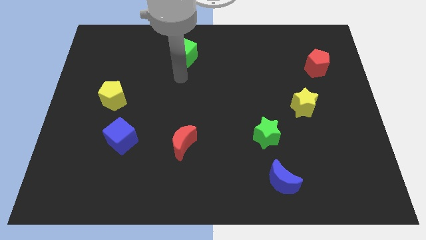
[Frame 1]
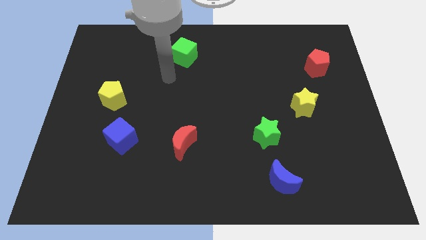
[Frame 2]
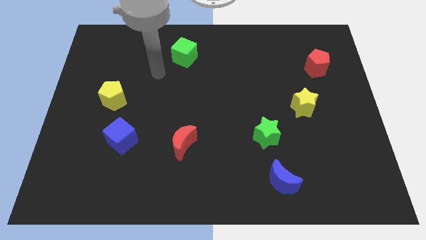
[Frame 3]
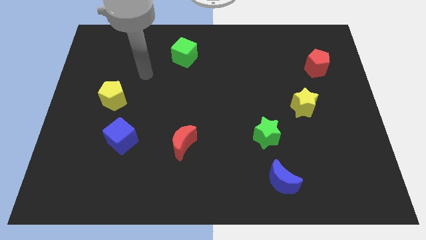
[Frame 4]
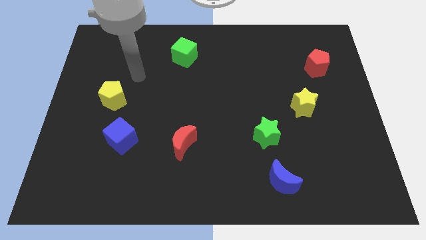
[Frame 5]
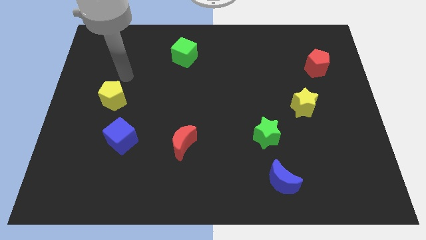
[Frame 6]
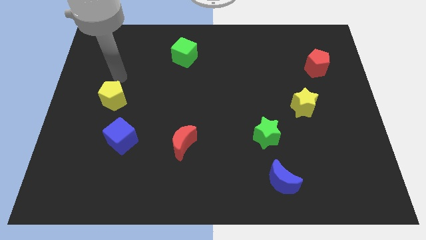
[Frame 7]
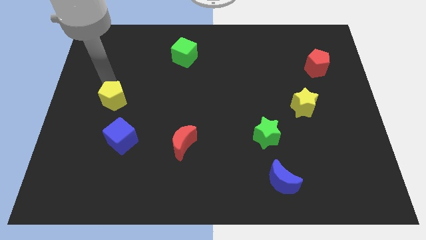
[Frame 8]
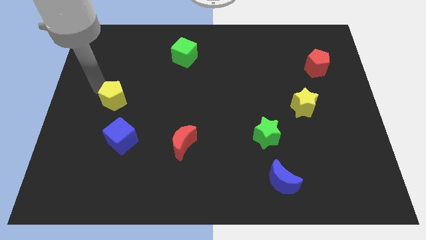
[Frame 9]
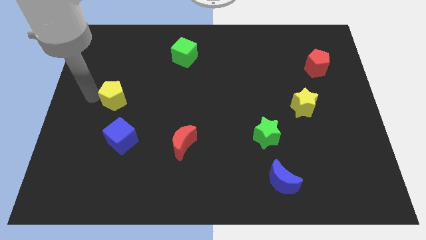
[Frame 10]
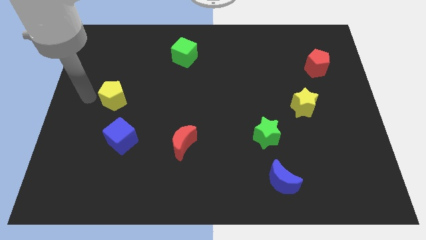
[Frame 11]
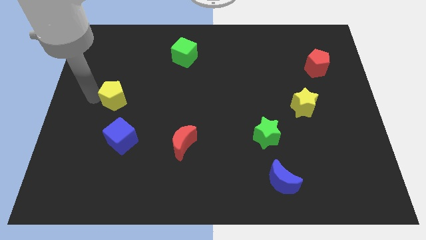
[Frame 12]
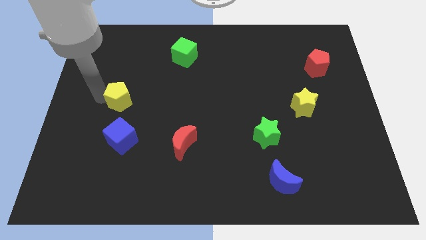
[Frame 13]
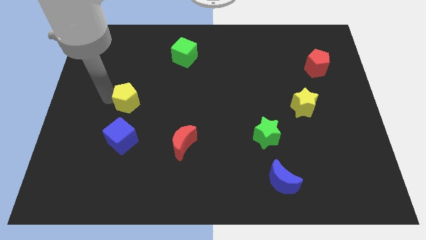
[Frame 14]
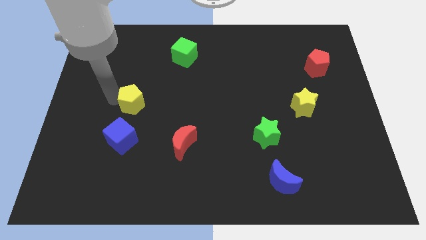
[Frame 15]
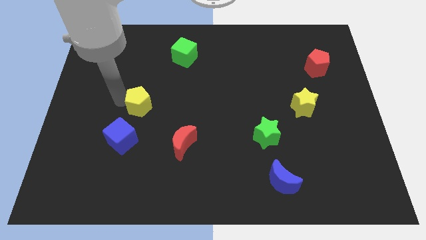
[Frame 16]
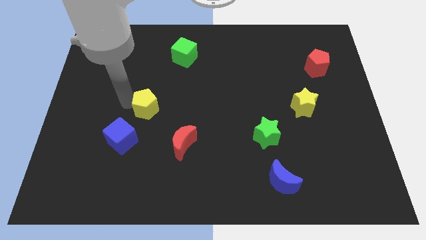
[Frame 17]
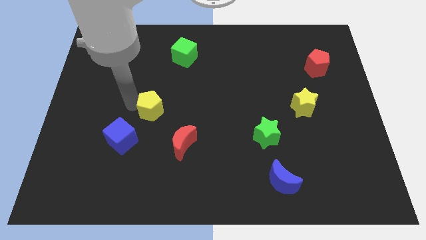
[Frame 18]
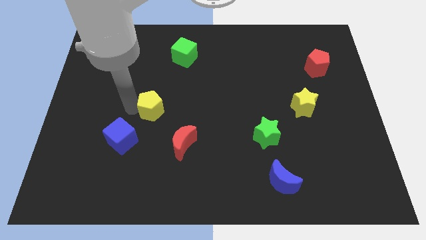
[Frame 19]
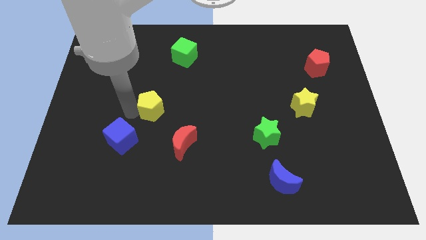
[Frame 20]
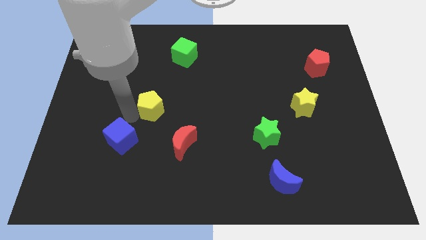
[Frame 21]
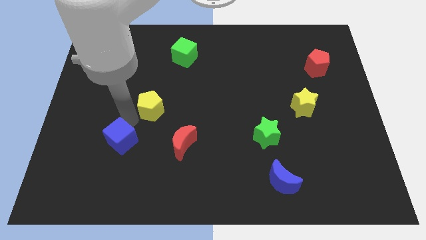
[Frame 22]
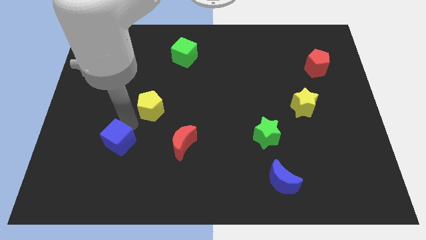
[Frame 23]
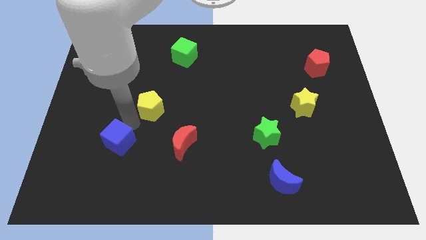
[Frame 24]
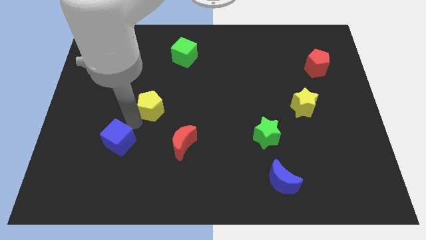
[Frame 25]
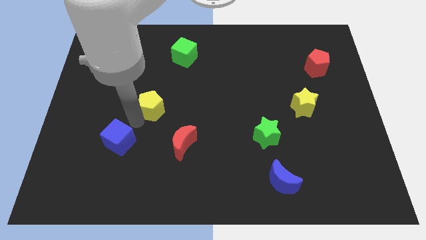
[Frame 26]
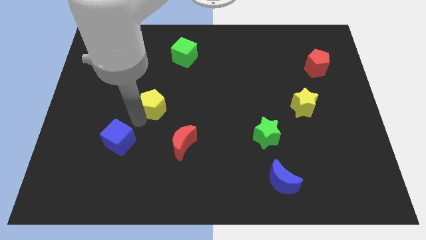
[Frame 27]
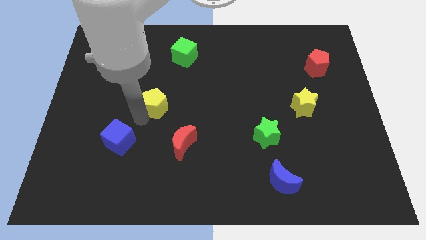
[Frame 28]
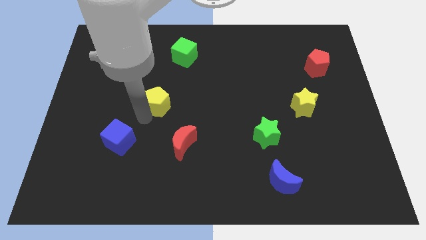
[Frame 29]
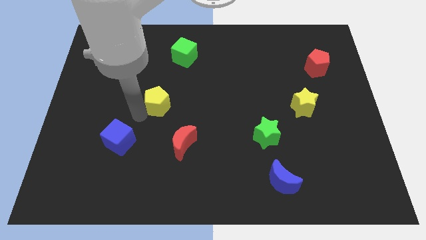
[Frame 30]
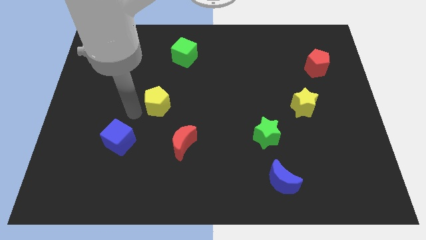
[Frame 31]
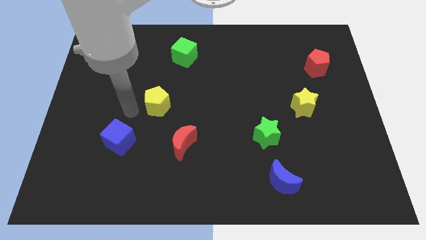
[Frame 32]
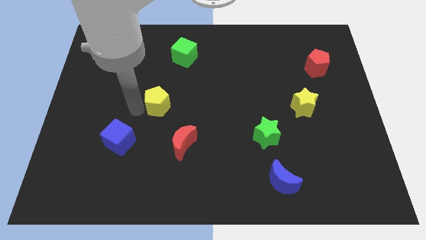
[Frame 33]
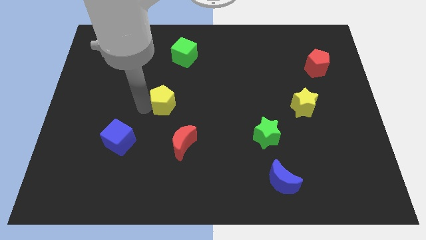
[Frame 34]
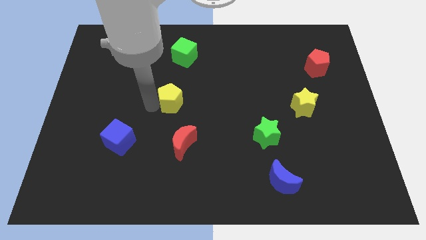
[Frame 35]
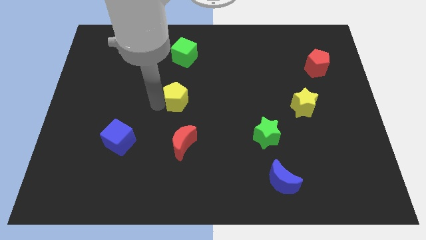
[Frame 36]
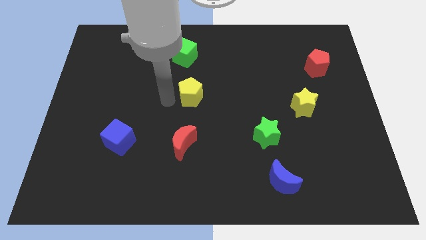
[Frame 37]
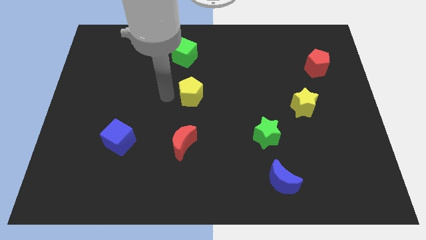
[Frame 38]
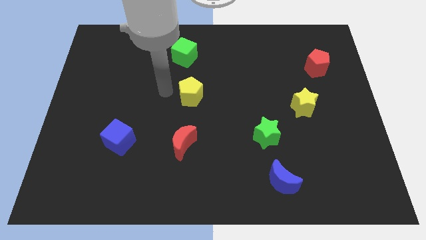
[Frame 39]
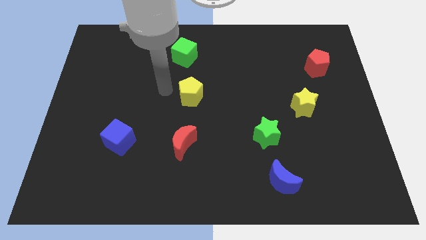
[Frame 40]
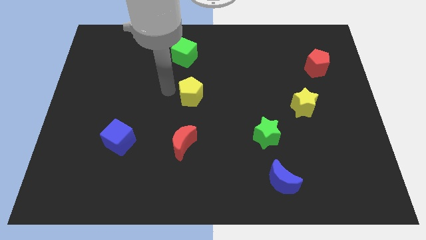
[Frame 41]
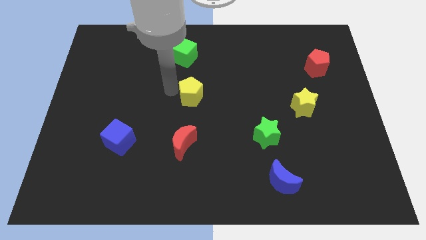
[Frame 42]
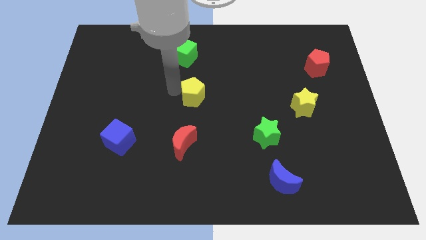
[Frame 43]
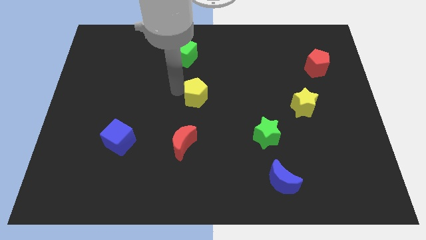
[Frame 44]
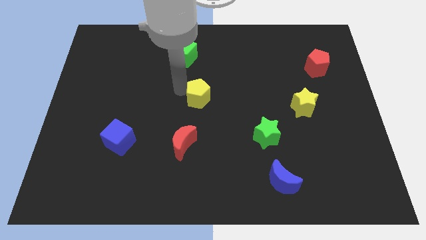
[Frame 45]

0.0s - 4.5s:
move the yellow pentagon right

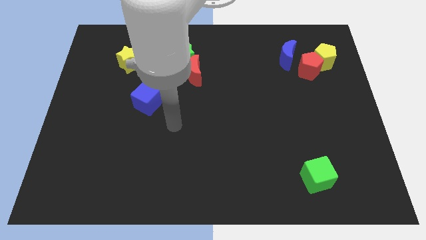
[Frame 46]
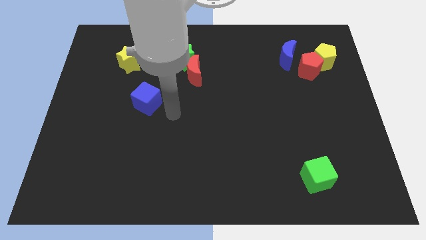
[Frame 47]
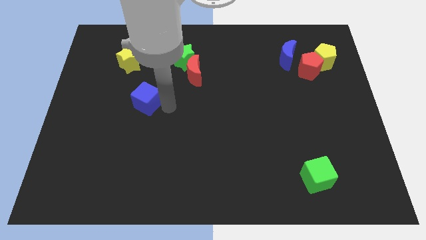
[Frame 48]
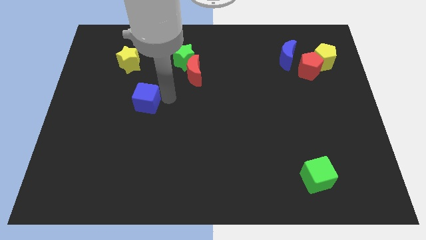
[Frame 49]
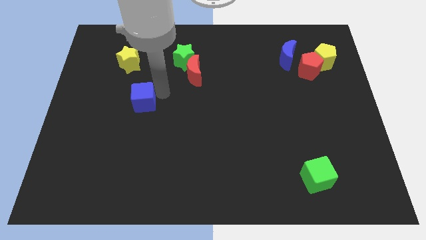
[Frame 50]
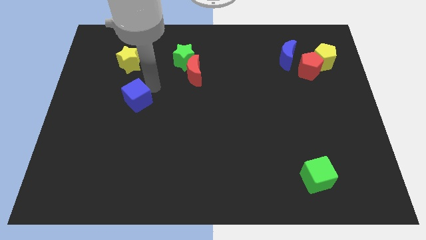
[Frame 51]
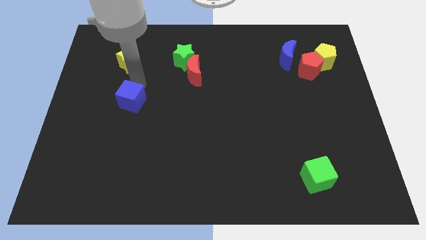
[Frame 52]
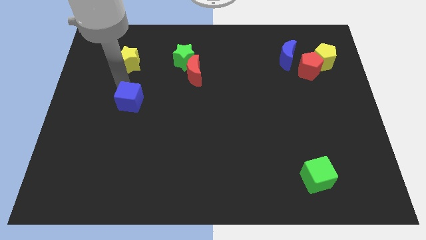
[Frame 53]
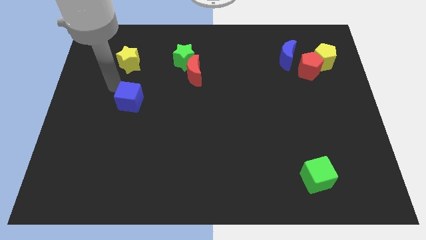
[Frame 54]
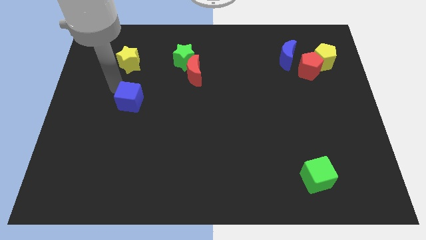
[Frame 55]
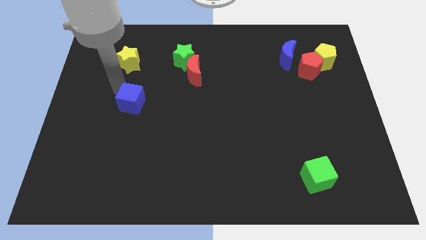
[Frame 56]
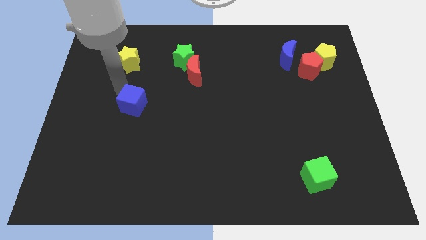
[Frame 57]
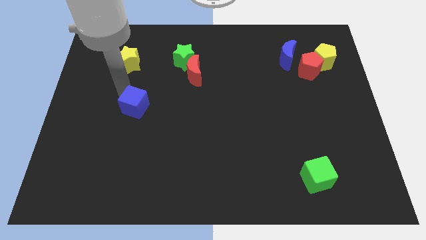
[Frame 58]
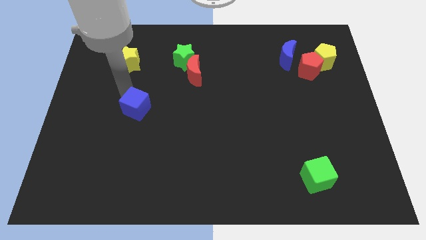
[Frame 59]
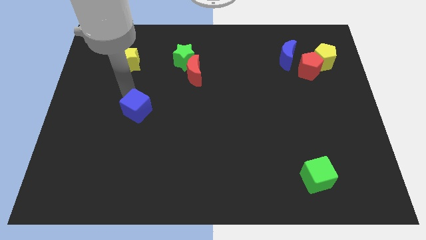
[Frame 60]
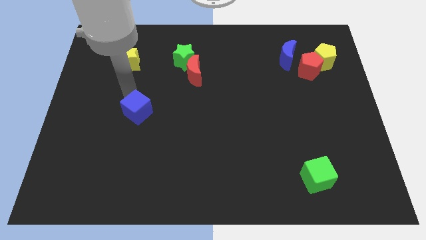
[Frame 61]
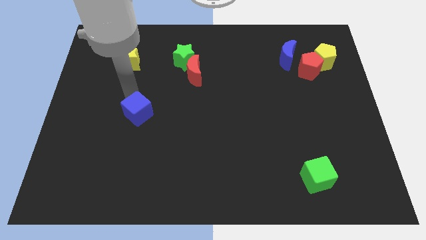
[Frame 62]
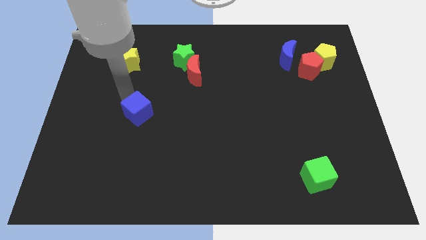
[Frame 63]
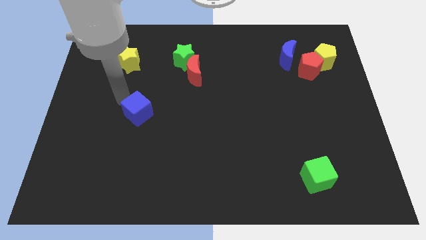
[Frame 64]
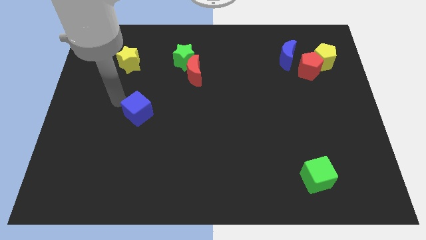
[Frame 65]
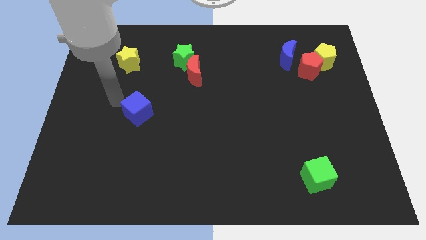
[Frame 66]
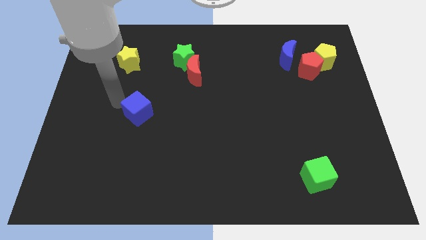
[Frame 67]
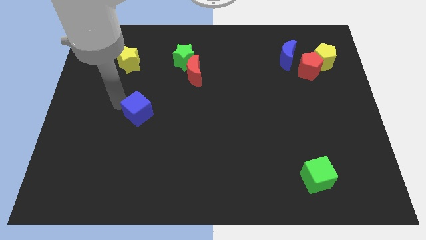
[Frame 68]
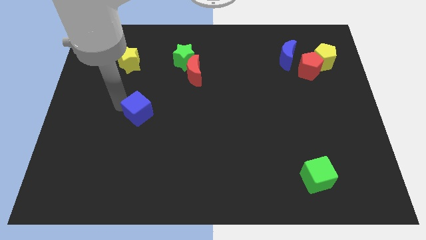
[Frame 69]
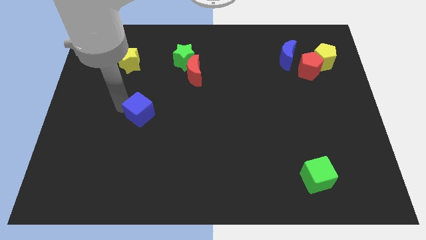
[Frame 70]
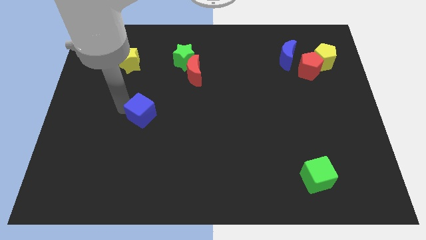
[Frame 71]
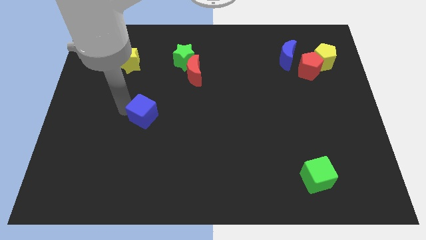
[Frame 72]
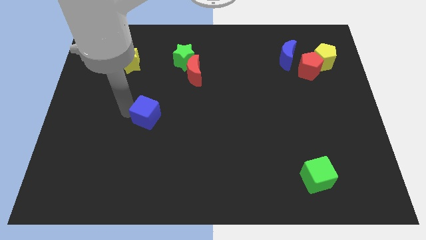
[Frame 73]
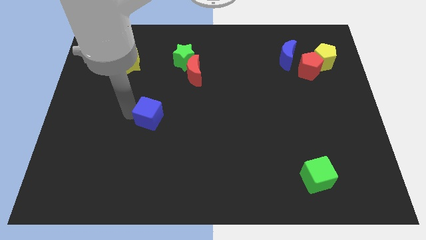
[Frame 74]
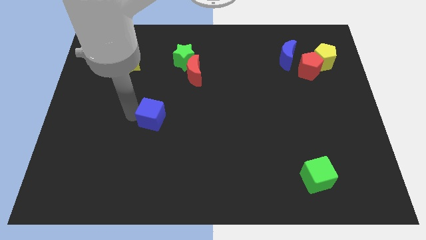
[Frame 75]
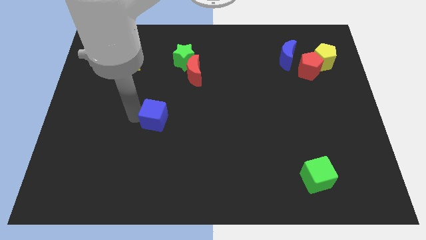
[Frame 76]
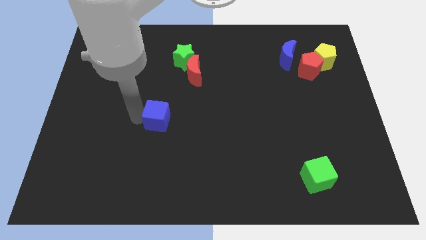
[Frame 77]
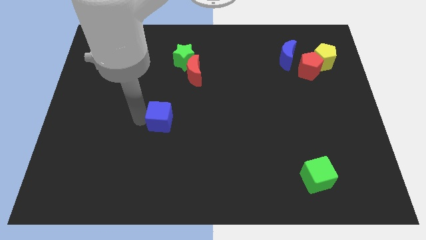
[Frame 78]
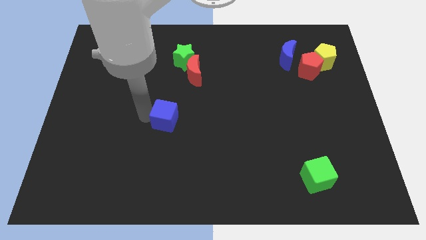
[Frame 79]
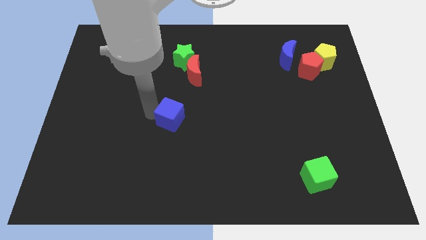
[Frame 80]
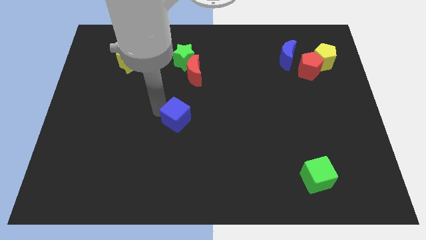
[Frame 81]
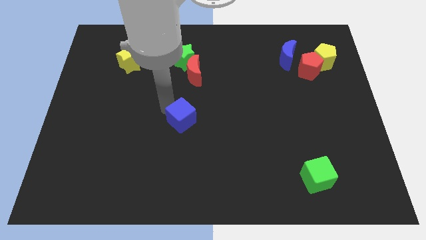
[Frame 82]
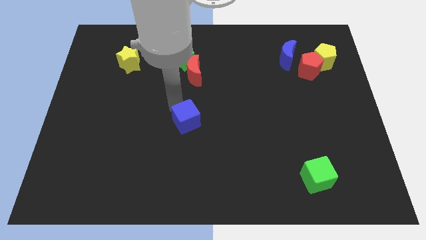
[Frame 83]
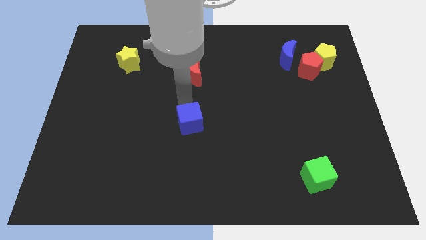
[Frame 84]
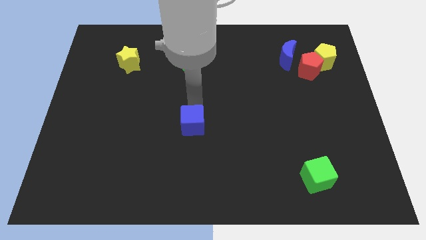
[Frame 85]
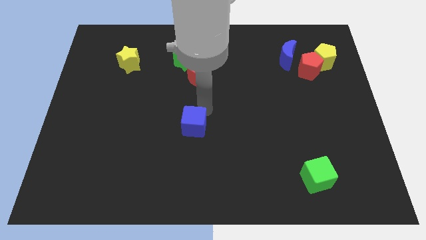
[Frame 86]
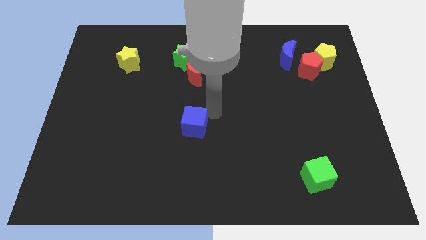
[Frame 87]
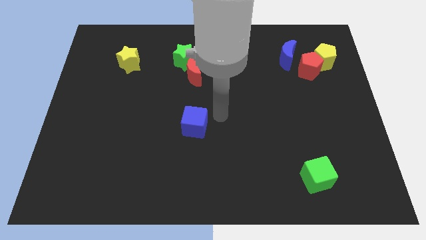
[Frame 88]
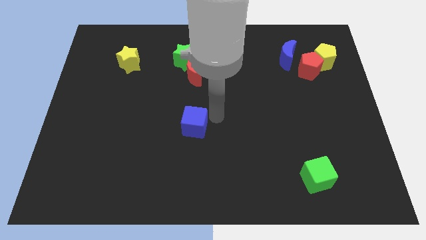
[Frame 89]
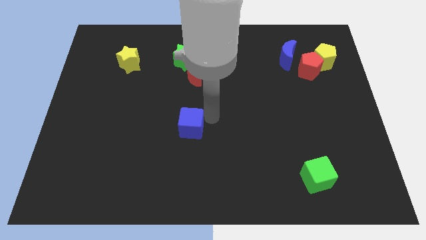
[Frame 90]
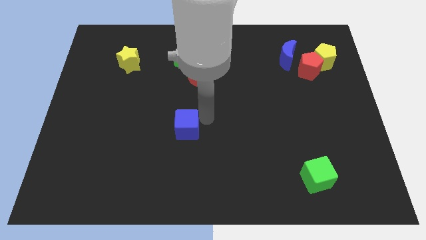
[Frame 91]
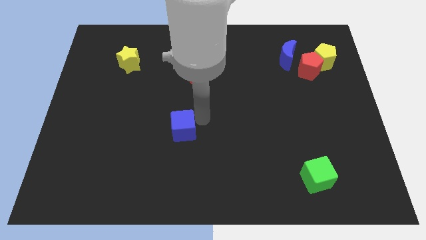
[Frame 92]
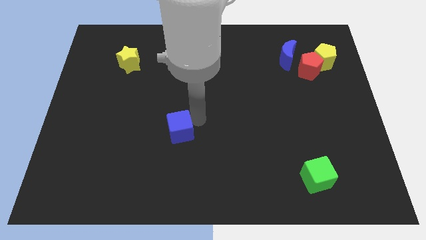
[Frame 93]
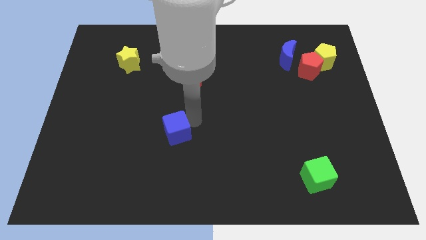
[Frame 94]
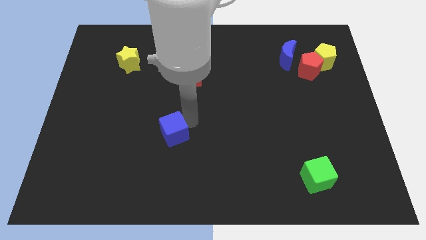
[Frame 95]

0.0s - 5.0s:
slightly push the blue cube downwards
